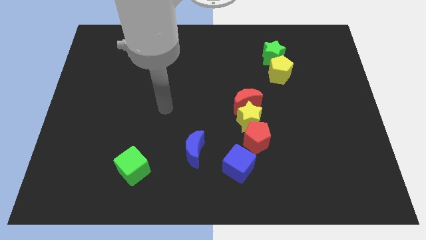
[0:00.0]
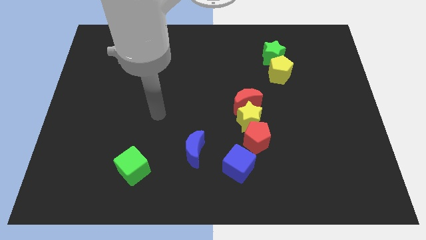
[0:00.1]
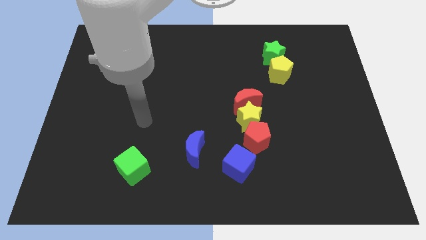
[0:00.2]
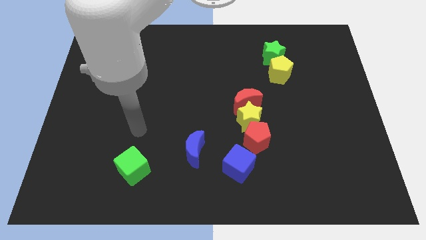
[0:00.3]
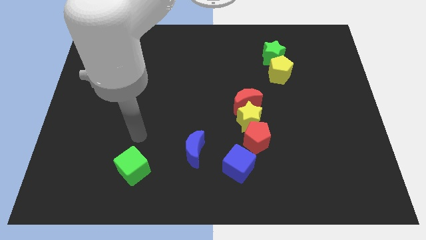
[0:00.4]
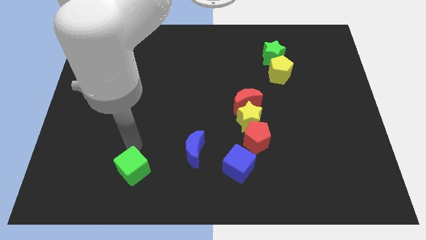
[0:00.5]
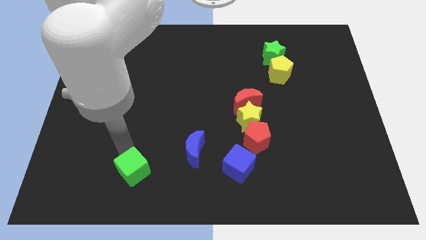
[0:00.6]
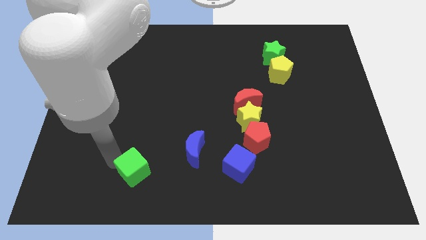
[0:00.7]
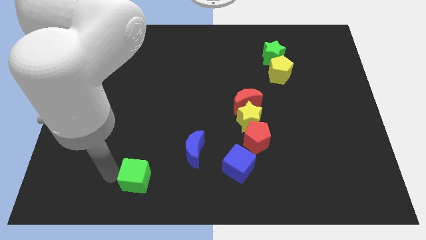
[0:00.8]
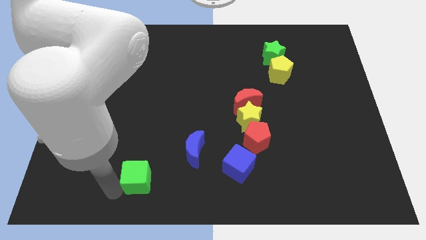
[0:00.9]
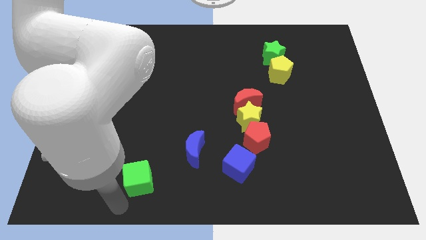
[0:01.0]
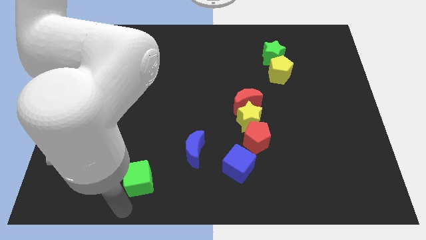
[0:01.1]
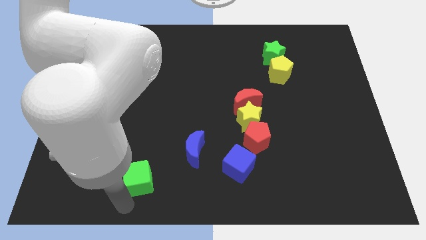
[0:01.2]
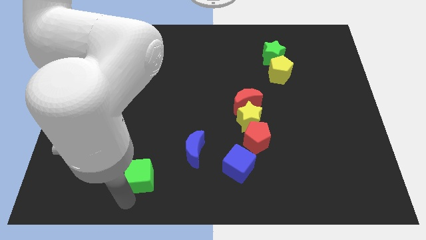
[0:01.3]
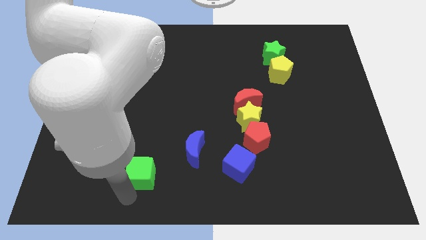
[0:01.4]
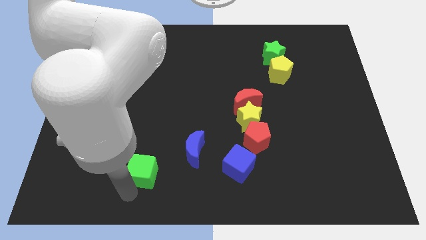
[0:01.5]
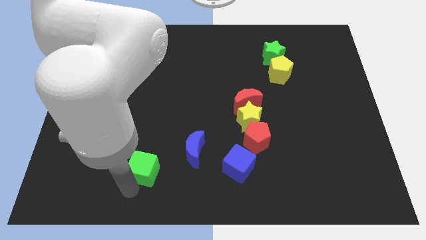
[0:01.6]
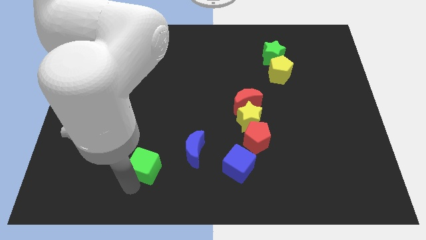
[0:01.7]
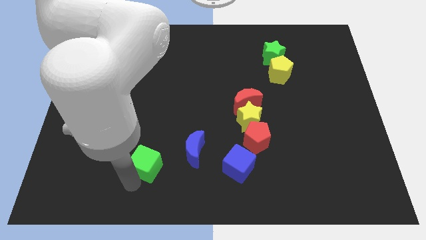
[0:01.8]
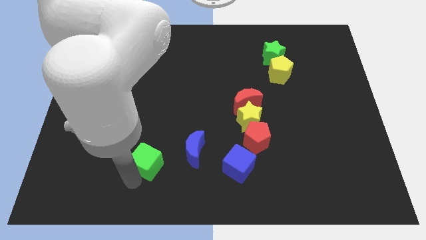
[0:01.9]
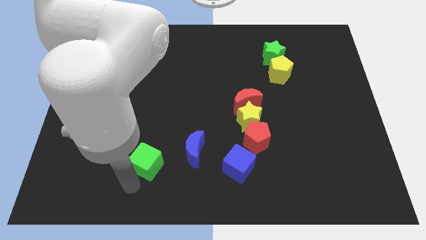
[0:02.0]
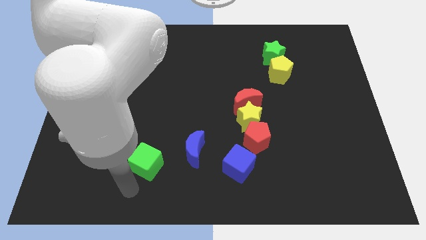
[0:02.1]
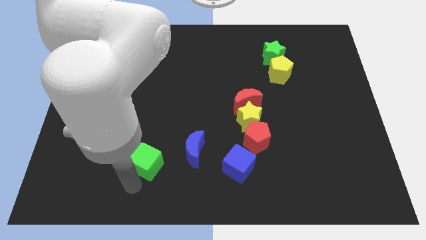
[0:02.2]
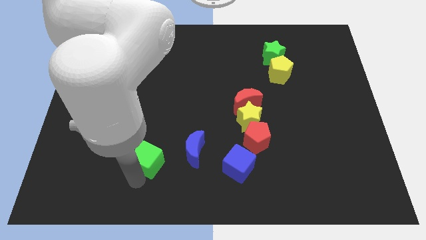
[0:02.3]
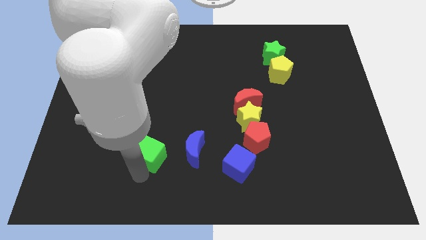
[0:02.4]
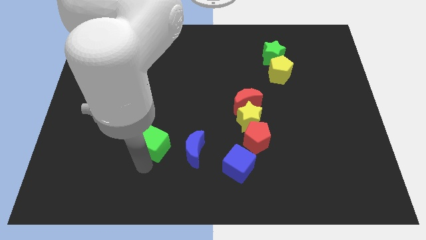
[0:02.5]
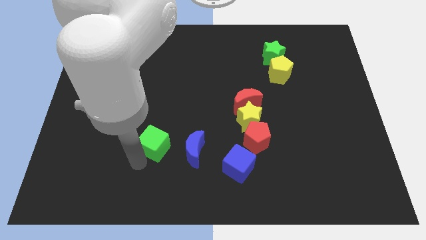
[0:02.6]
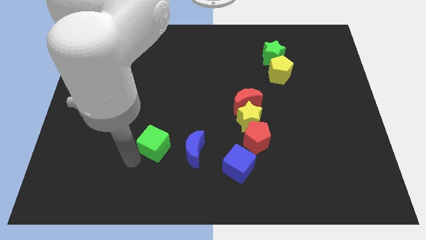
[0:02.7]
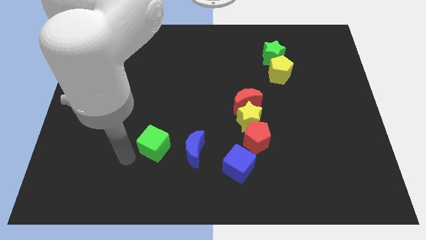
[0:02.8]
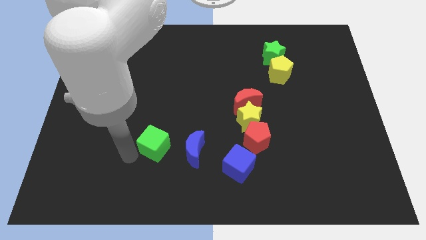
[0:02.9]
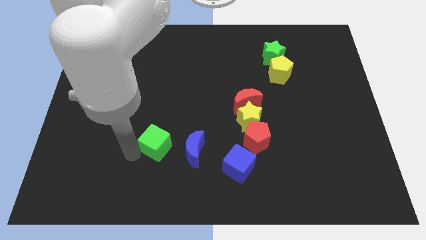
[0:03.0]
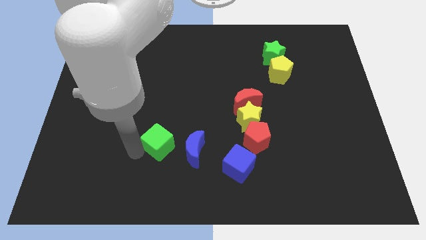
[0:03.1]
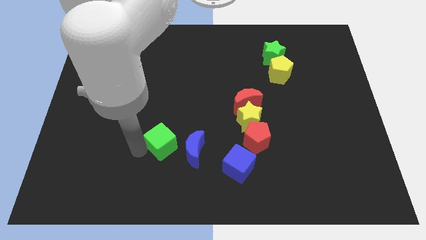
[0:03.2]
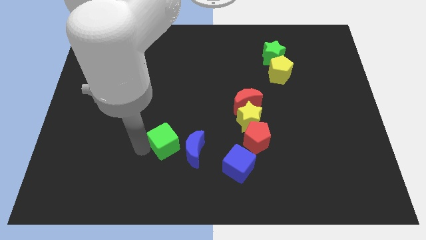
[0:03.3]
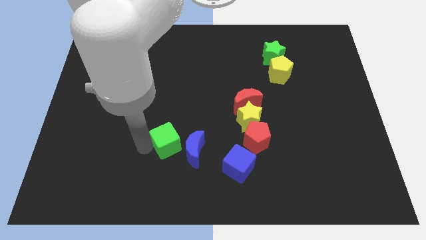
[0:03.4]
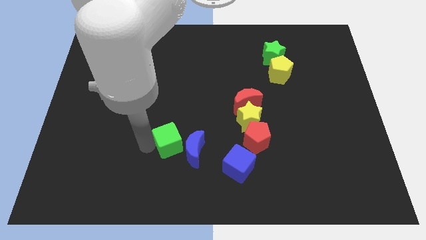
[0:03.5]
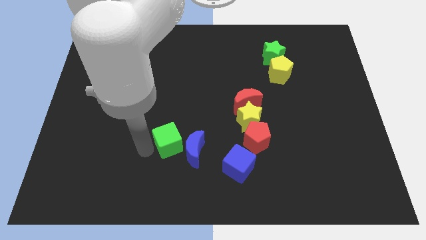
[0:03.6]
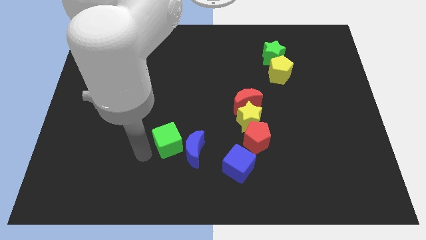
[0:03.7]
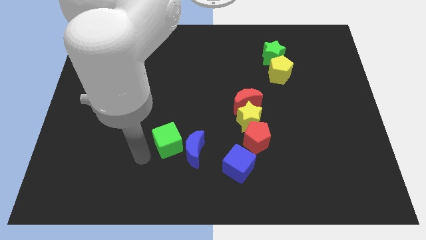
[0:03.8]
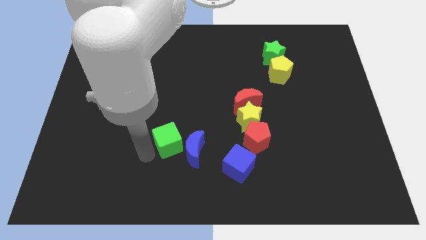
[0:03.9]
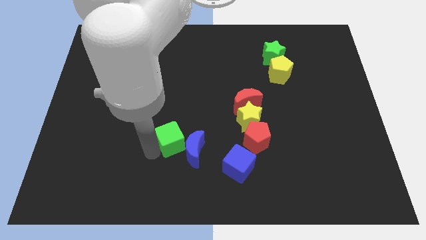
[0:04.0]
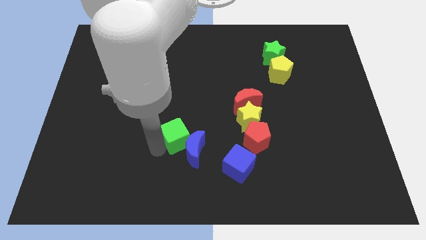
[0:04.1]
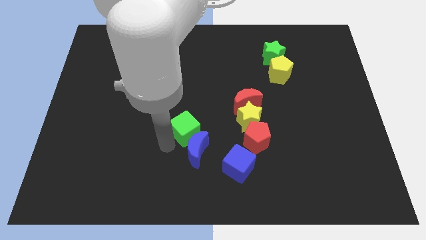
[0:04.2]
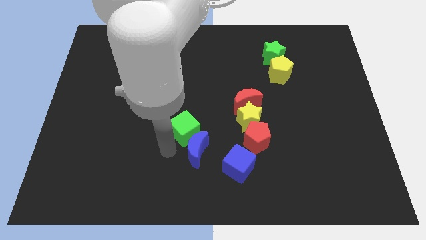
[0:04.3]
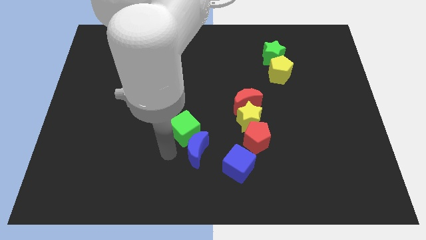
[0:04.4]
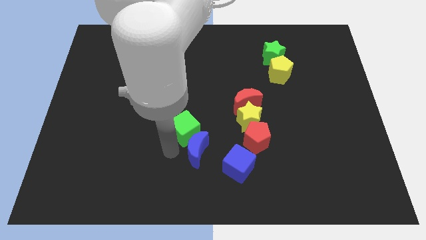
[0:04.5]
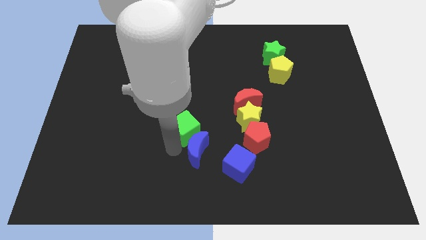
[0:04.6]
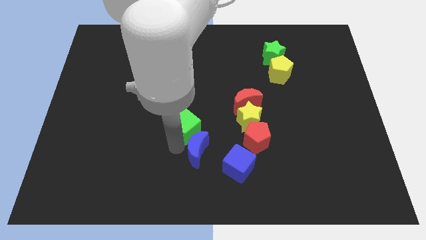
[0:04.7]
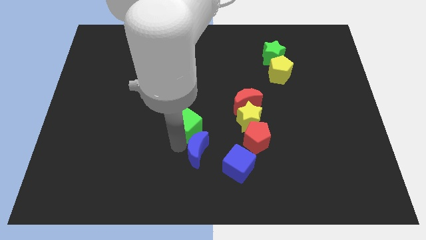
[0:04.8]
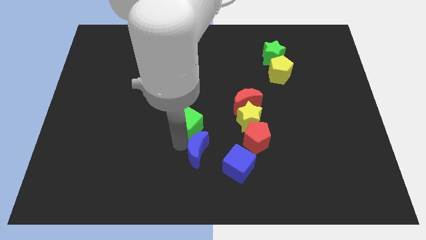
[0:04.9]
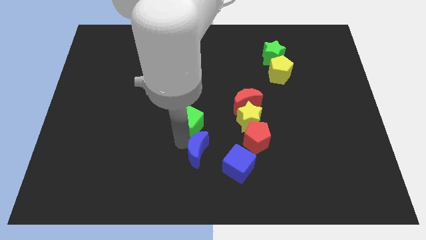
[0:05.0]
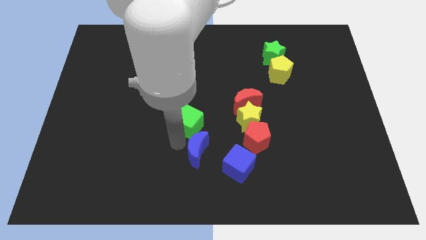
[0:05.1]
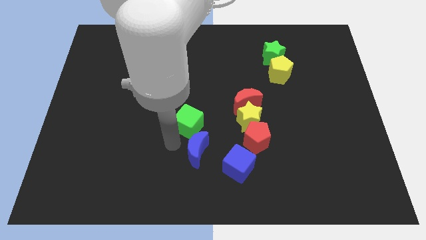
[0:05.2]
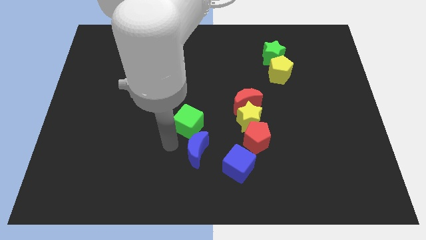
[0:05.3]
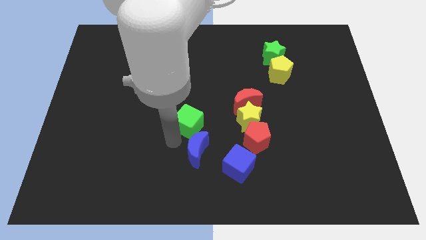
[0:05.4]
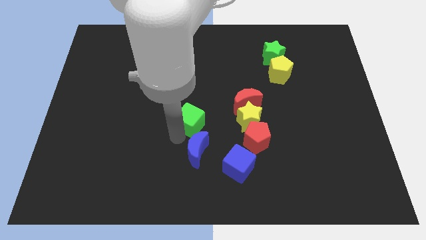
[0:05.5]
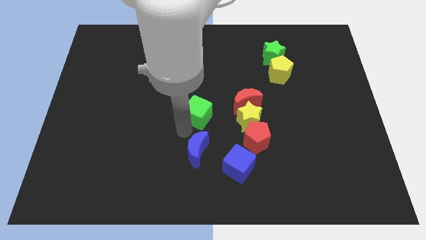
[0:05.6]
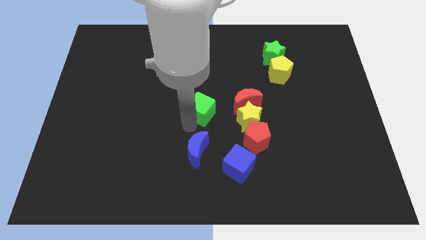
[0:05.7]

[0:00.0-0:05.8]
move the green cube upwards and right diagonally

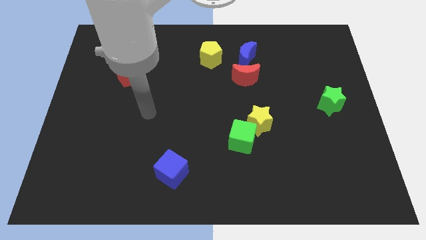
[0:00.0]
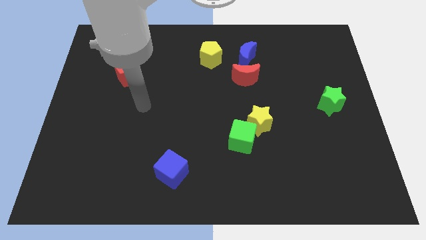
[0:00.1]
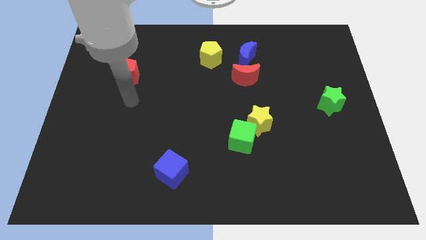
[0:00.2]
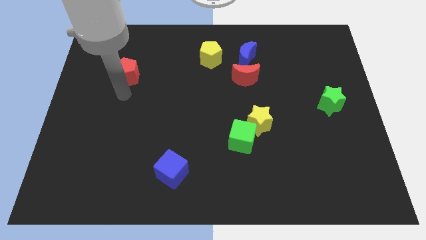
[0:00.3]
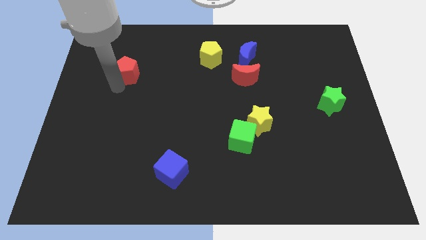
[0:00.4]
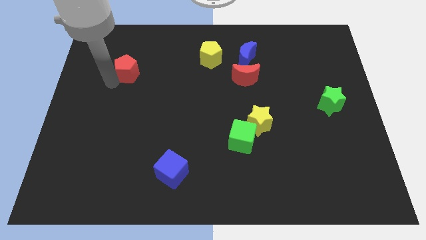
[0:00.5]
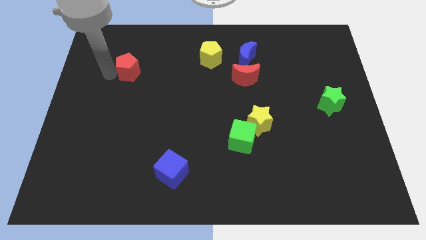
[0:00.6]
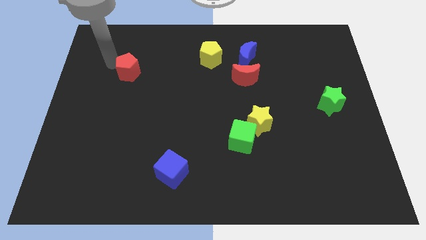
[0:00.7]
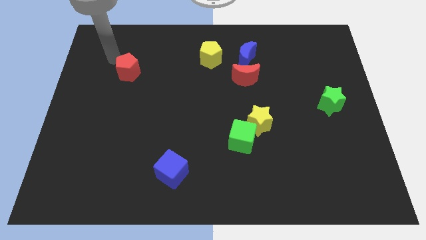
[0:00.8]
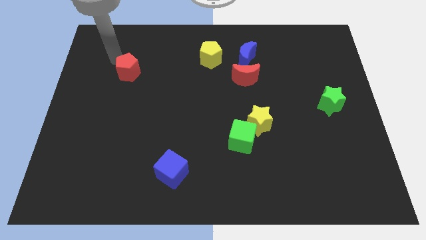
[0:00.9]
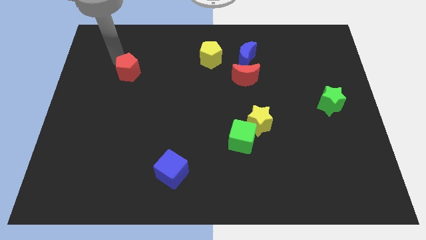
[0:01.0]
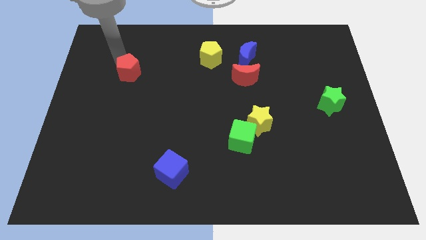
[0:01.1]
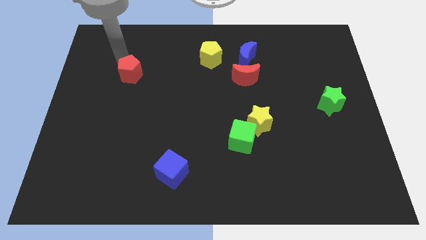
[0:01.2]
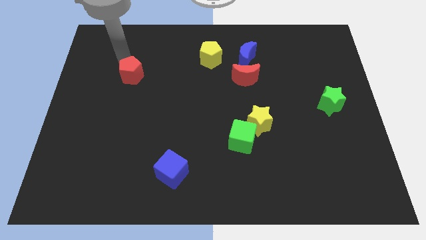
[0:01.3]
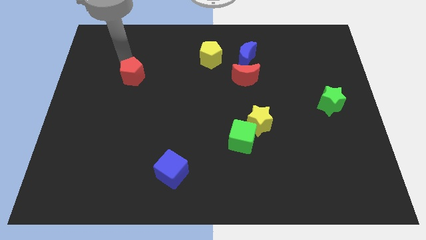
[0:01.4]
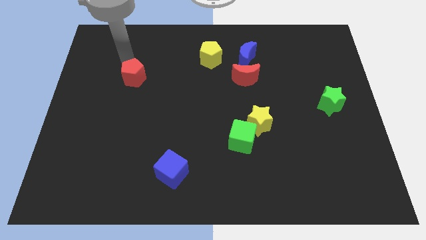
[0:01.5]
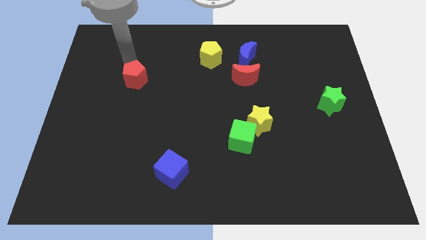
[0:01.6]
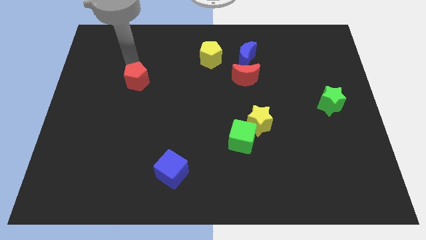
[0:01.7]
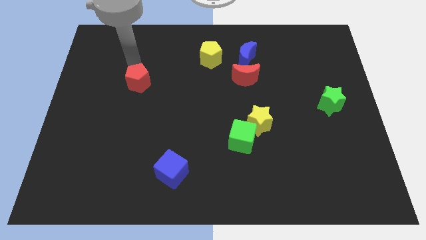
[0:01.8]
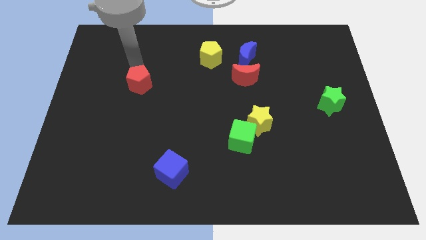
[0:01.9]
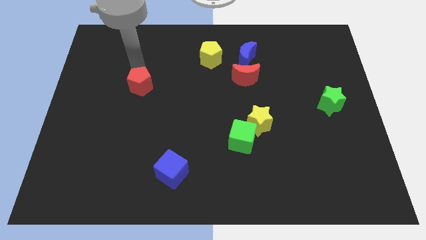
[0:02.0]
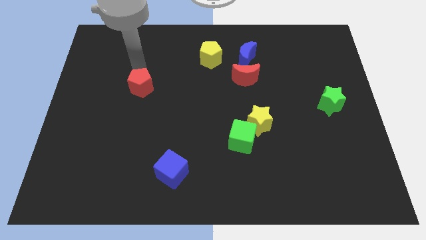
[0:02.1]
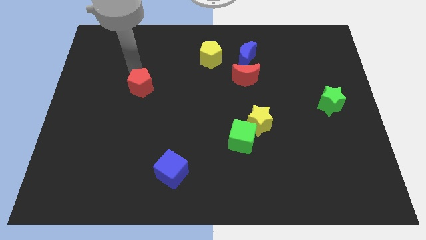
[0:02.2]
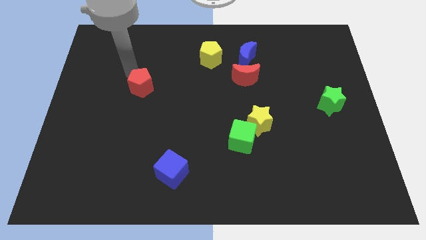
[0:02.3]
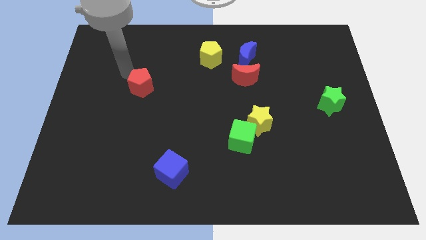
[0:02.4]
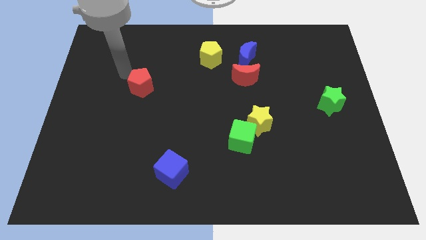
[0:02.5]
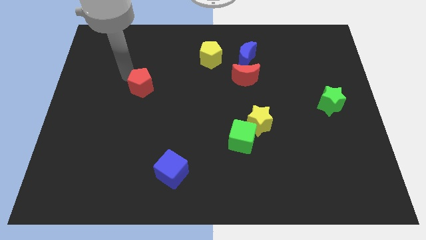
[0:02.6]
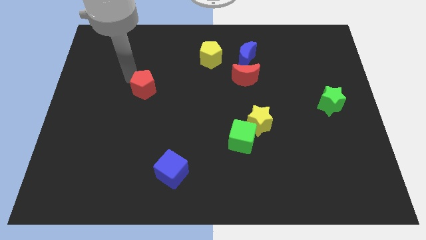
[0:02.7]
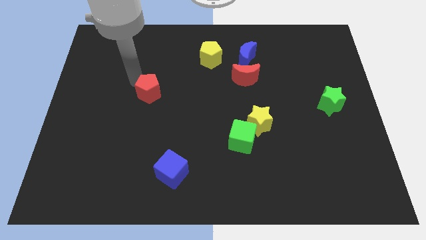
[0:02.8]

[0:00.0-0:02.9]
slightly slide the red pentagon downwards and then right
